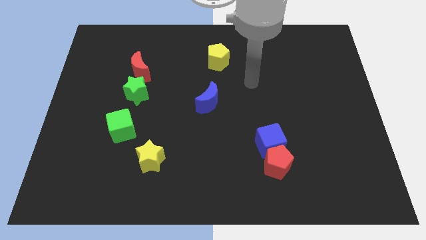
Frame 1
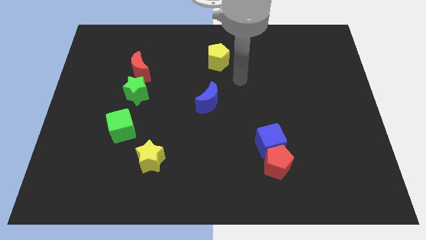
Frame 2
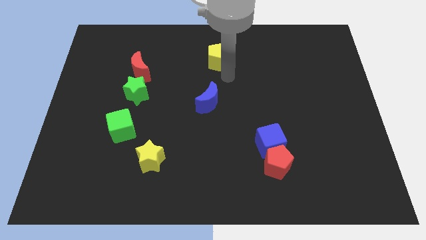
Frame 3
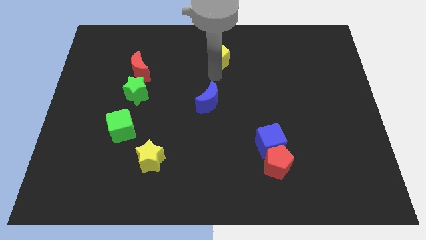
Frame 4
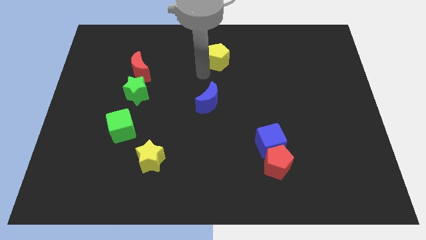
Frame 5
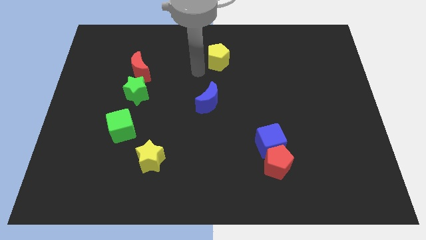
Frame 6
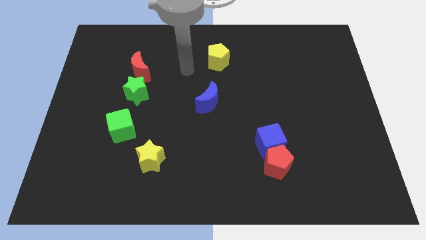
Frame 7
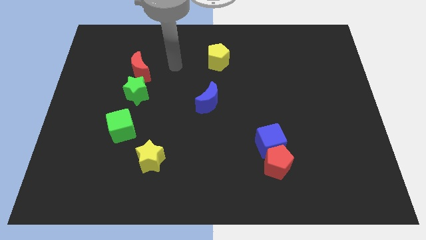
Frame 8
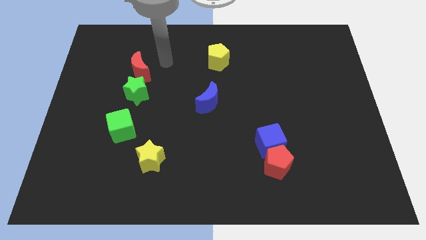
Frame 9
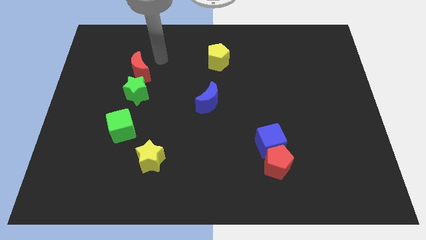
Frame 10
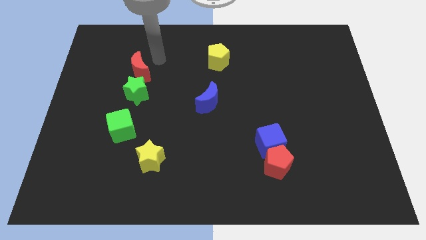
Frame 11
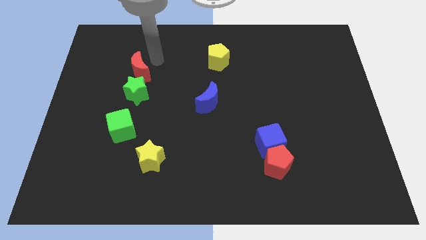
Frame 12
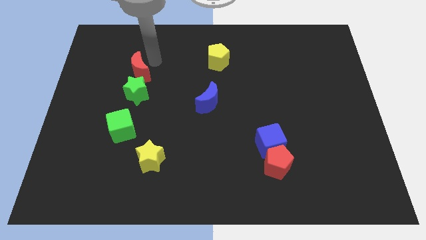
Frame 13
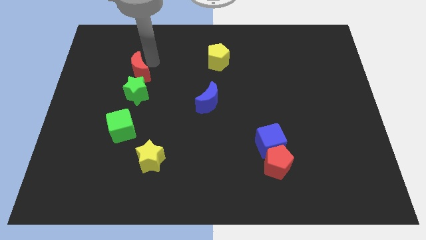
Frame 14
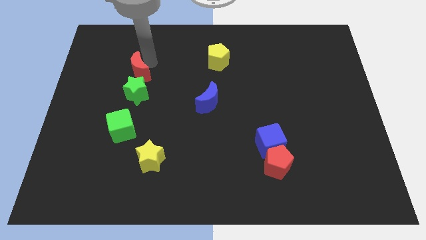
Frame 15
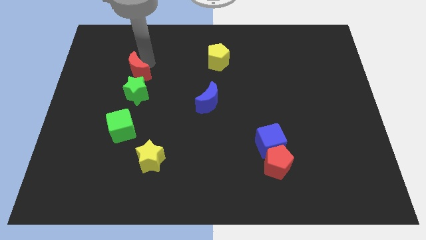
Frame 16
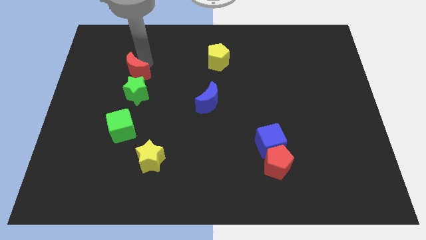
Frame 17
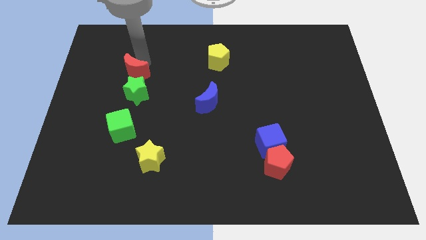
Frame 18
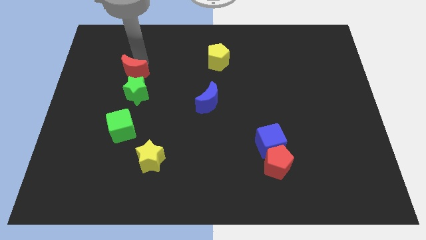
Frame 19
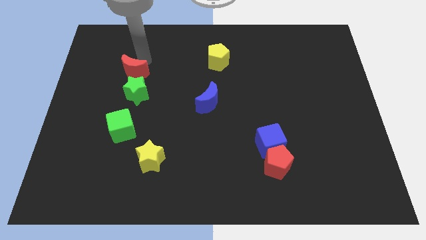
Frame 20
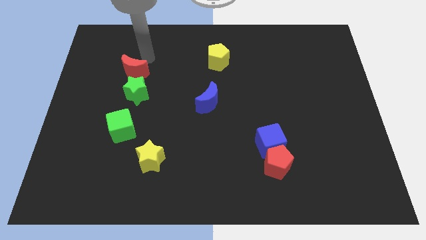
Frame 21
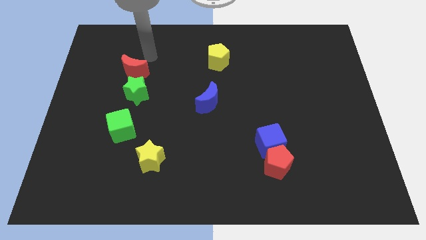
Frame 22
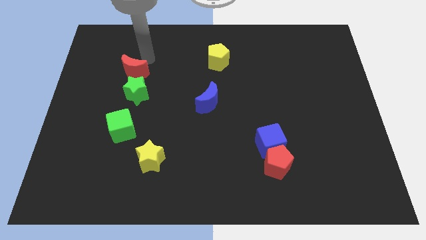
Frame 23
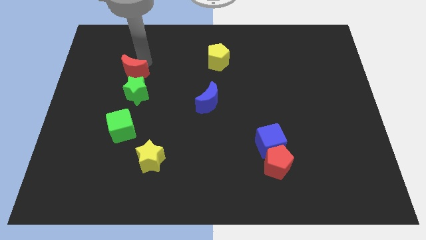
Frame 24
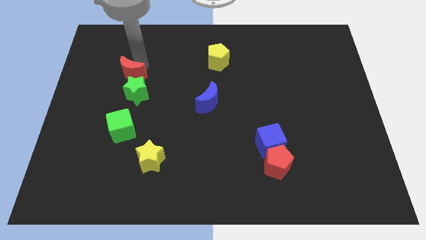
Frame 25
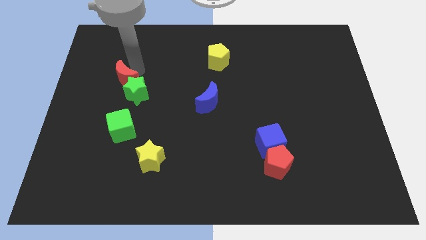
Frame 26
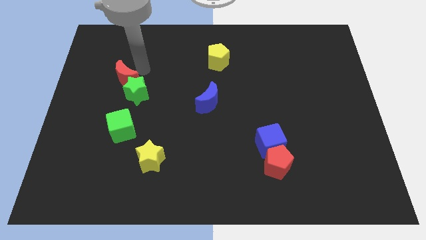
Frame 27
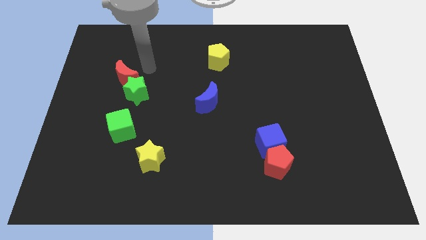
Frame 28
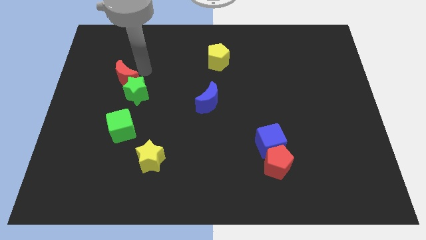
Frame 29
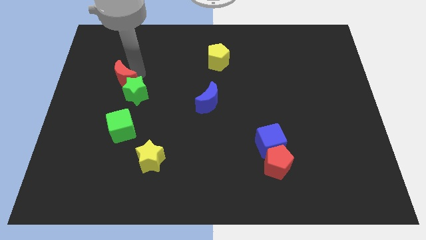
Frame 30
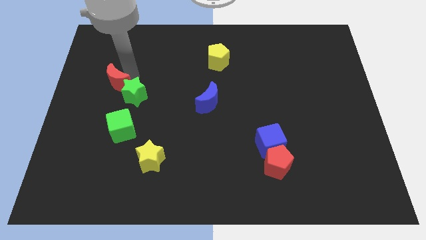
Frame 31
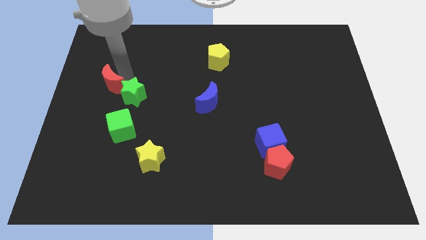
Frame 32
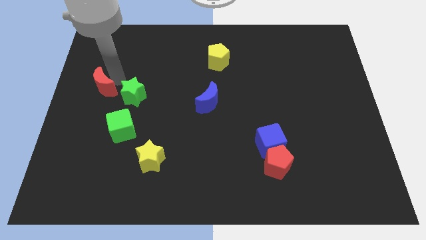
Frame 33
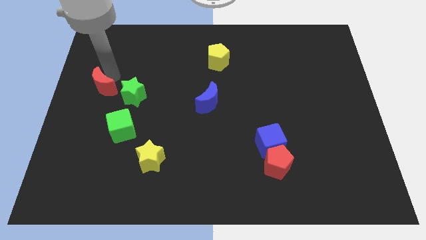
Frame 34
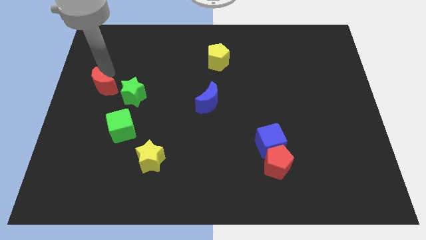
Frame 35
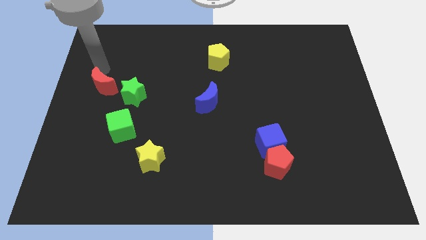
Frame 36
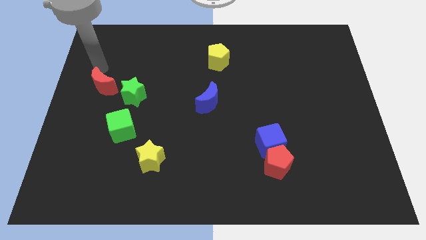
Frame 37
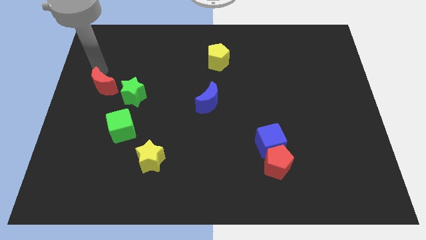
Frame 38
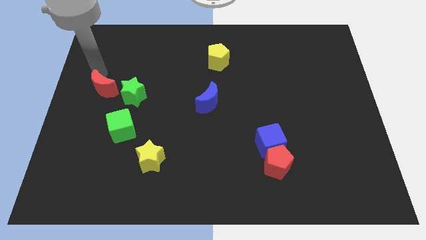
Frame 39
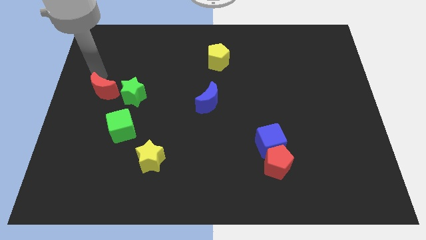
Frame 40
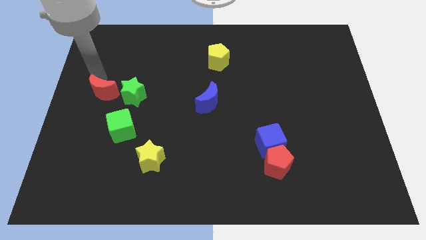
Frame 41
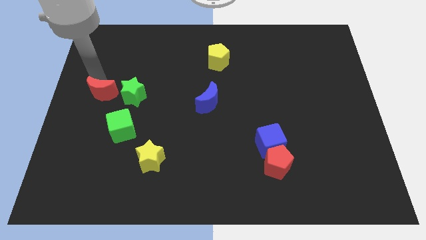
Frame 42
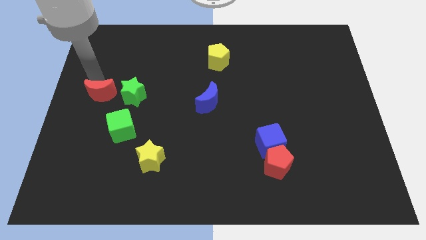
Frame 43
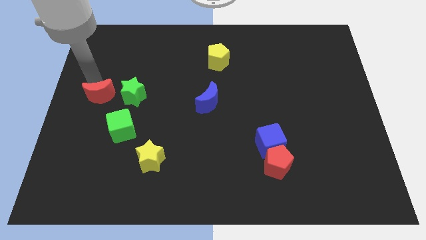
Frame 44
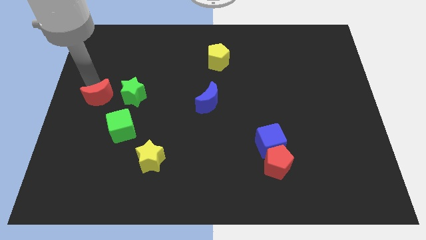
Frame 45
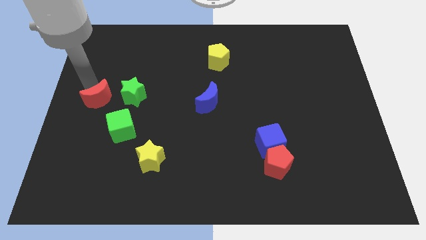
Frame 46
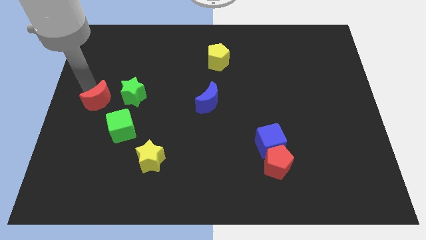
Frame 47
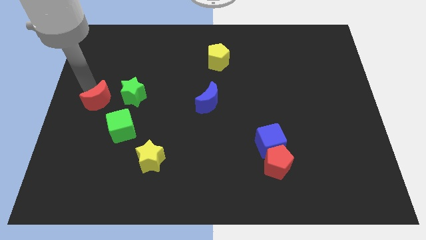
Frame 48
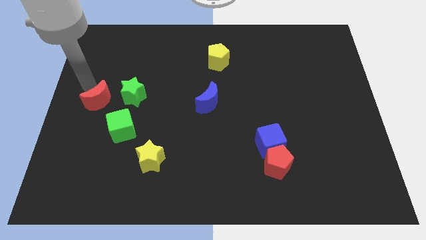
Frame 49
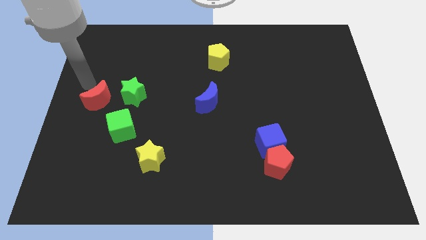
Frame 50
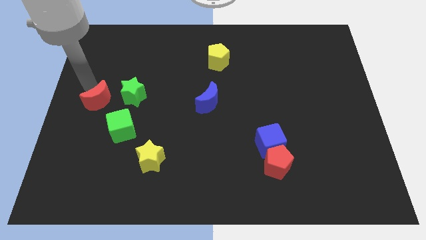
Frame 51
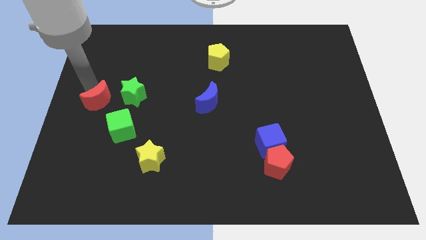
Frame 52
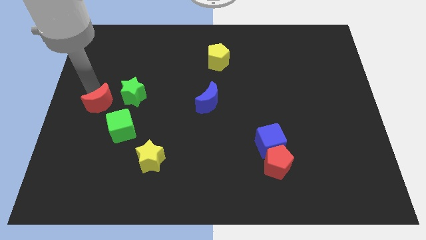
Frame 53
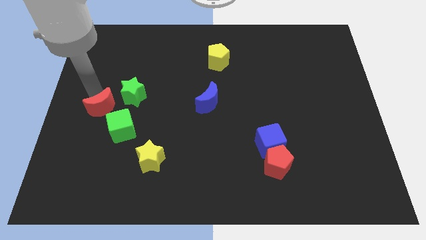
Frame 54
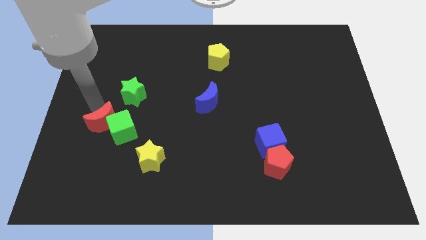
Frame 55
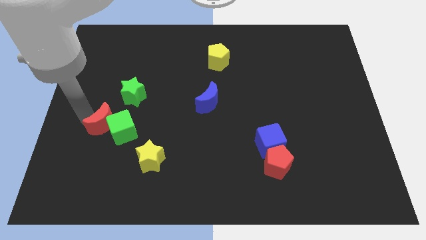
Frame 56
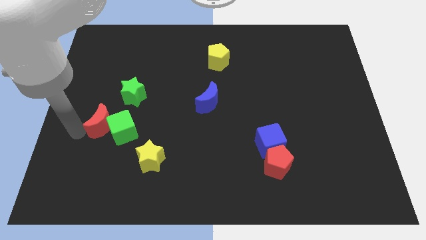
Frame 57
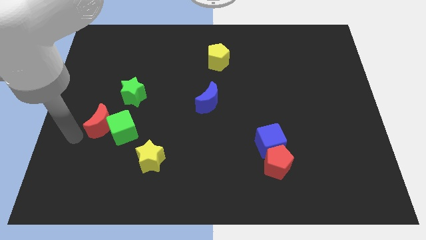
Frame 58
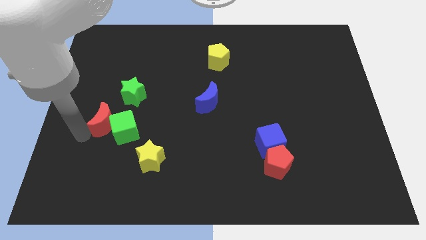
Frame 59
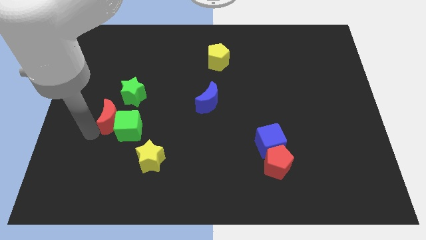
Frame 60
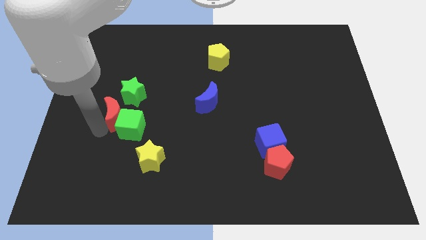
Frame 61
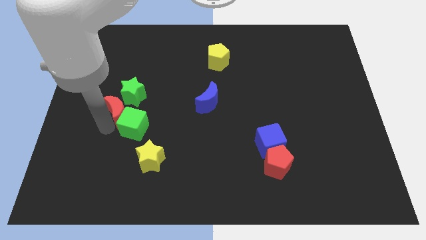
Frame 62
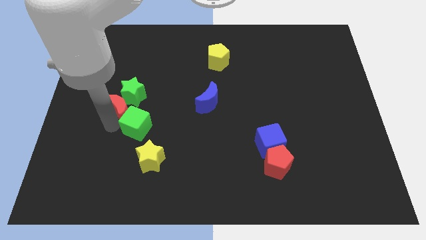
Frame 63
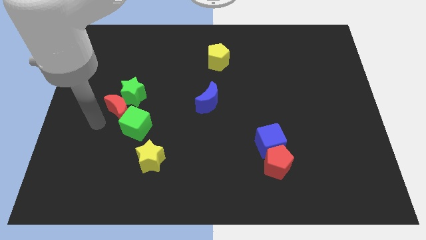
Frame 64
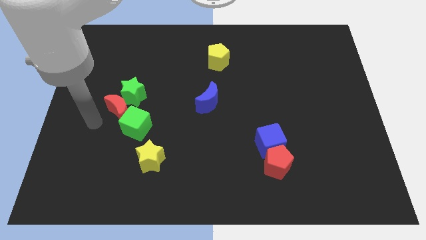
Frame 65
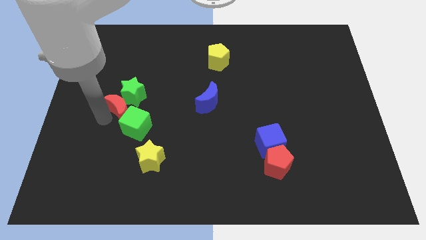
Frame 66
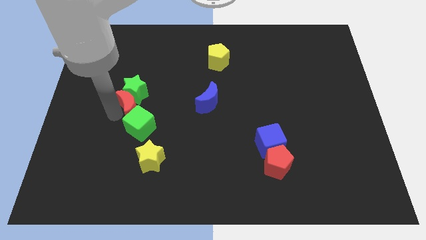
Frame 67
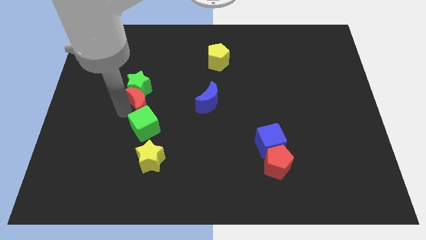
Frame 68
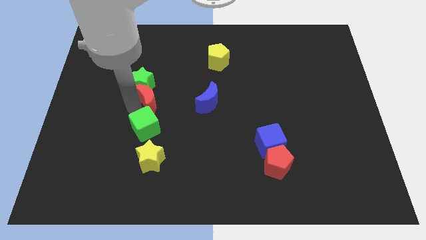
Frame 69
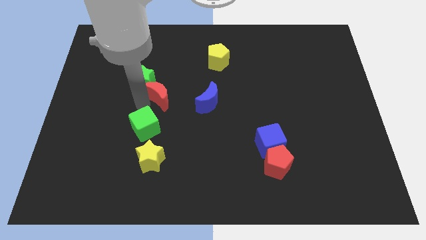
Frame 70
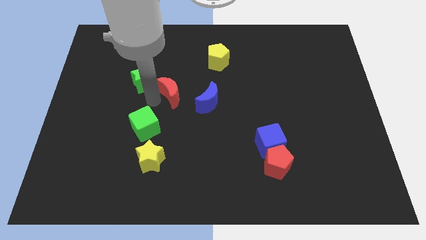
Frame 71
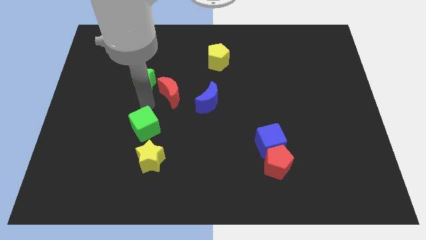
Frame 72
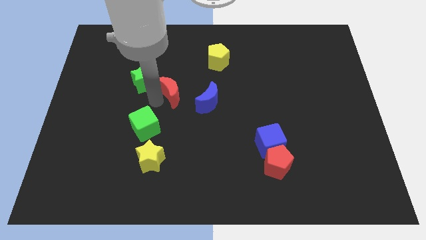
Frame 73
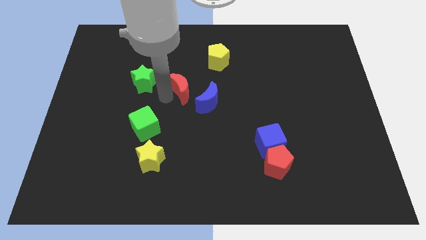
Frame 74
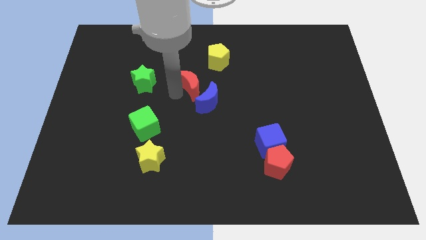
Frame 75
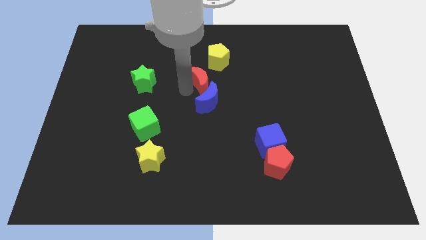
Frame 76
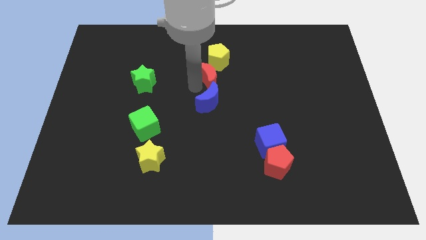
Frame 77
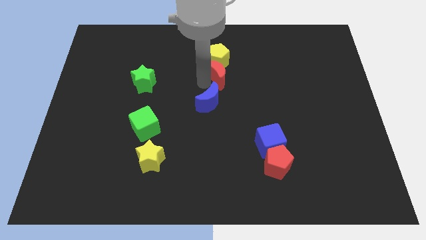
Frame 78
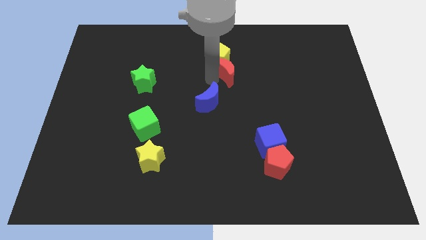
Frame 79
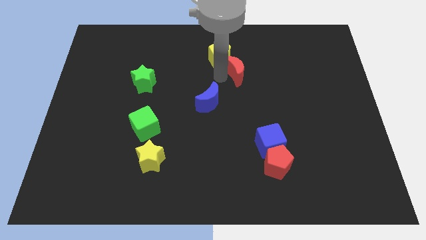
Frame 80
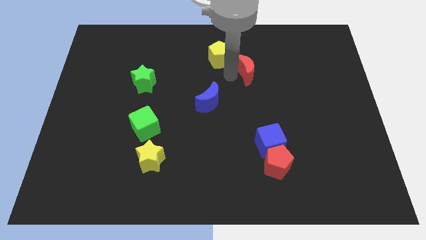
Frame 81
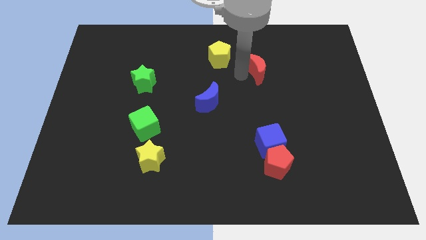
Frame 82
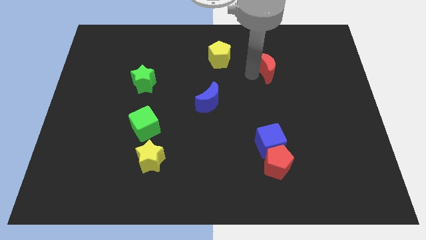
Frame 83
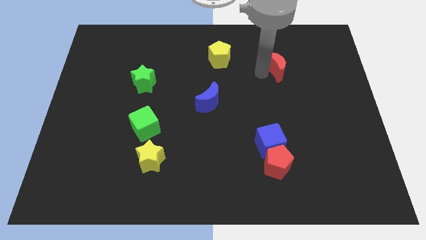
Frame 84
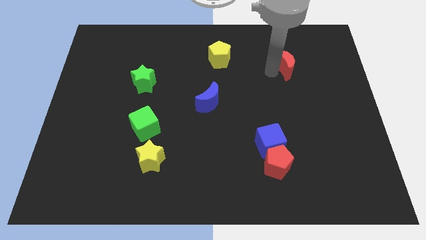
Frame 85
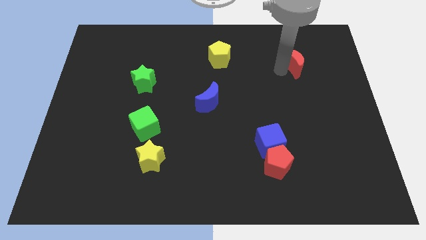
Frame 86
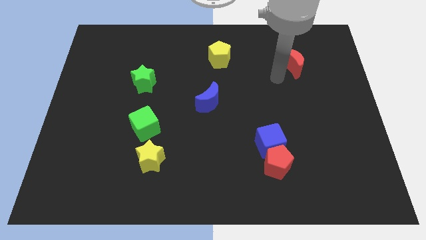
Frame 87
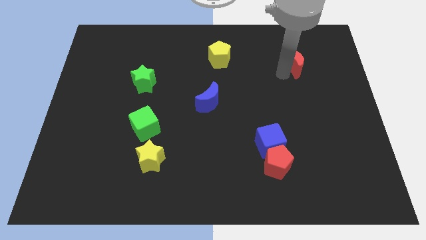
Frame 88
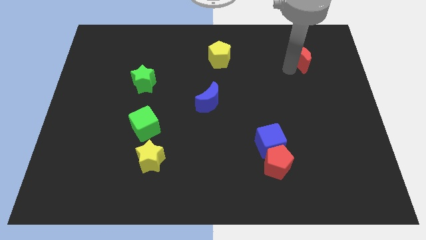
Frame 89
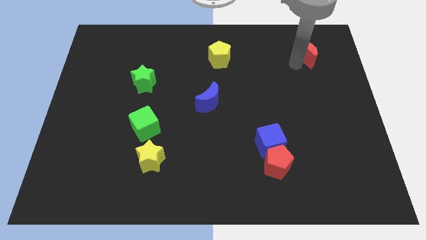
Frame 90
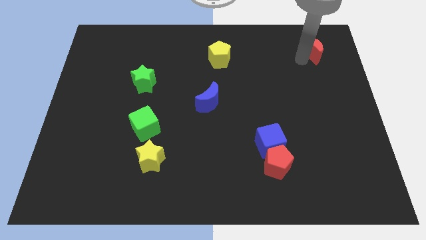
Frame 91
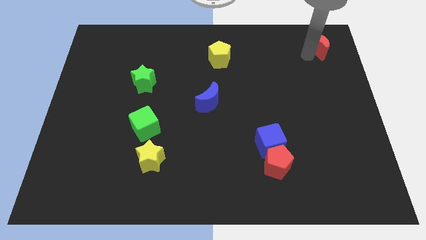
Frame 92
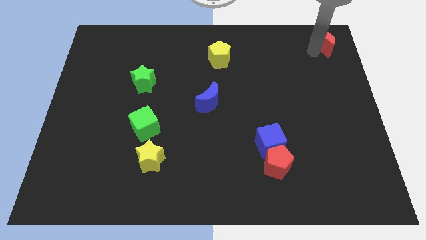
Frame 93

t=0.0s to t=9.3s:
push the red moon to the top right corner
